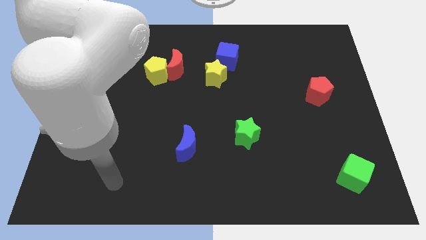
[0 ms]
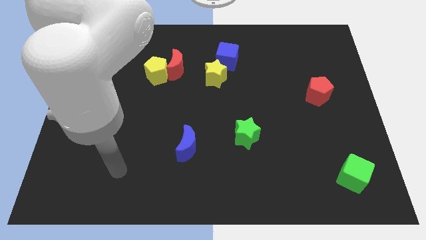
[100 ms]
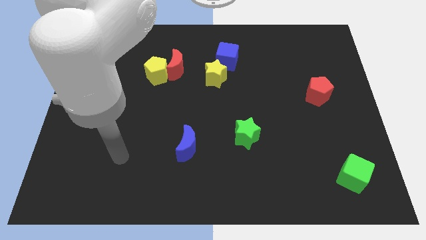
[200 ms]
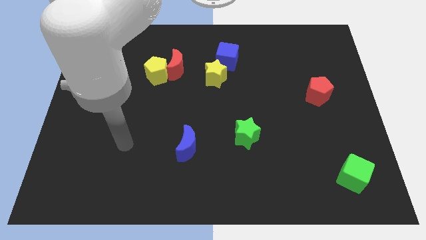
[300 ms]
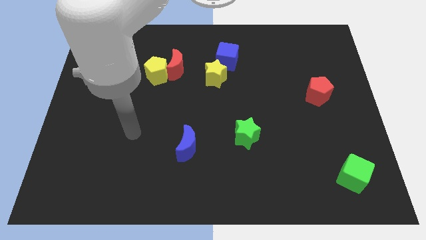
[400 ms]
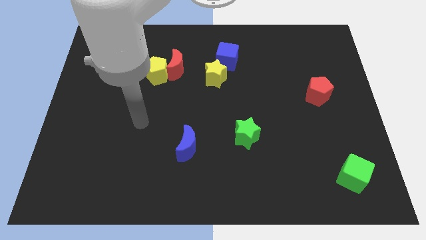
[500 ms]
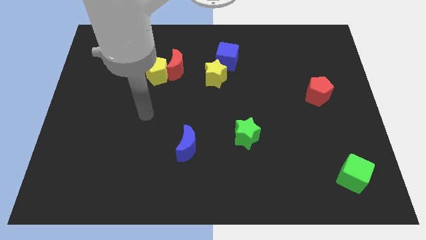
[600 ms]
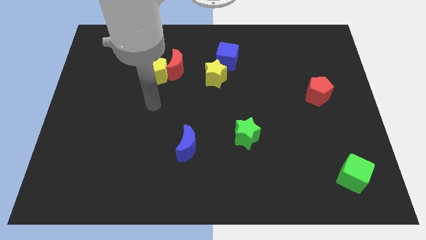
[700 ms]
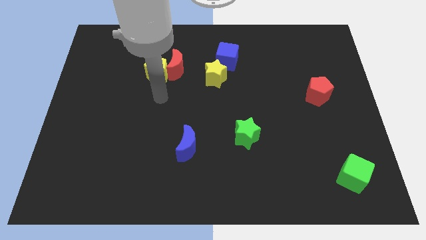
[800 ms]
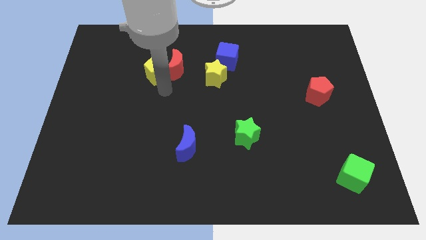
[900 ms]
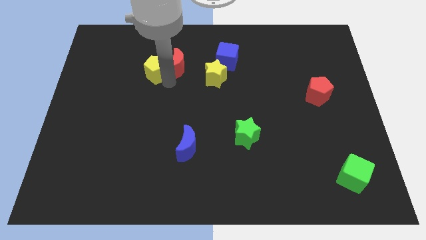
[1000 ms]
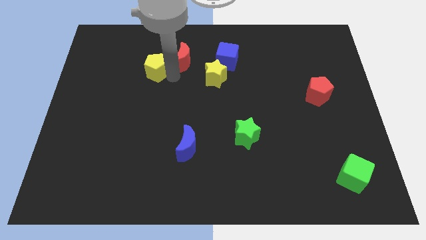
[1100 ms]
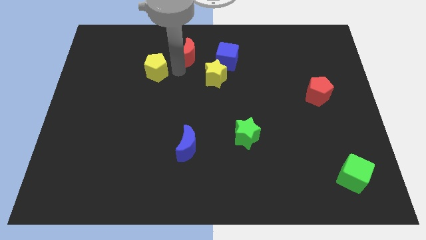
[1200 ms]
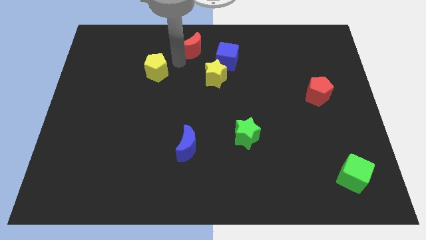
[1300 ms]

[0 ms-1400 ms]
move the yellow pentagon away from the red moon

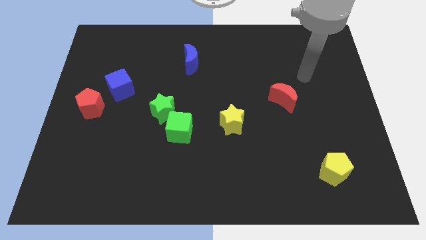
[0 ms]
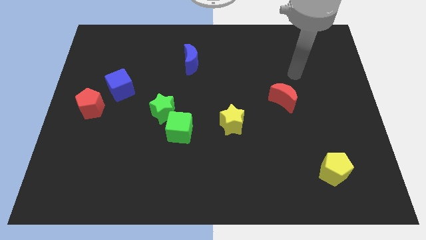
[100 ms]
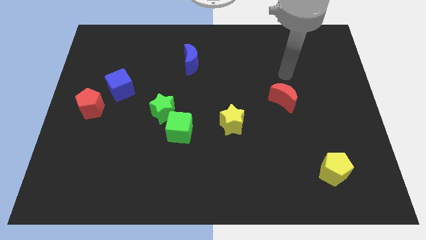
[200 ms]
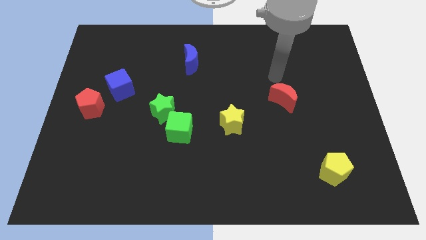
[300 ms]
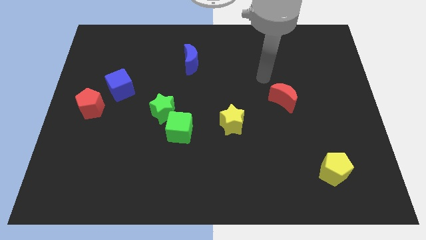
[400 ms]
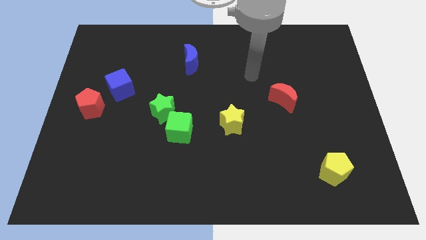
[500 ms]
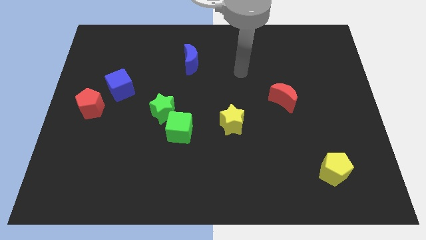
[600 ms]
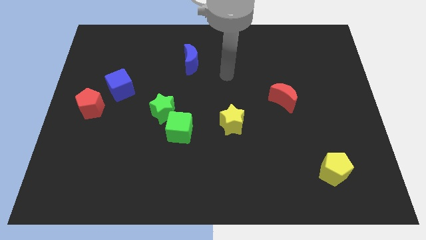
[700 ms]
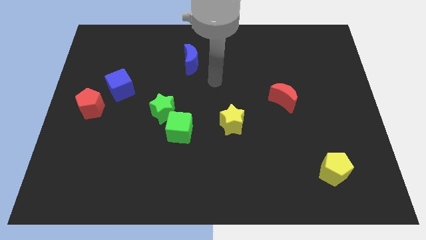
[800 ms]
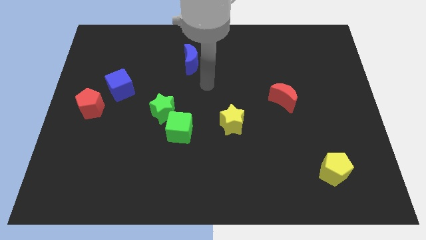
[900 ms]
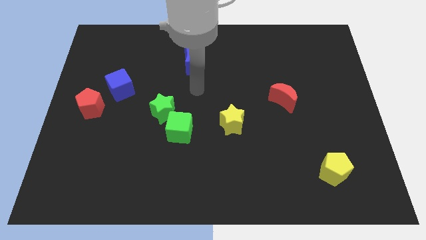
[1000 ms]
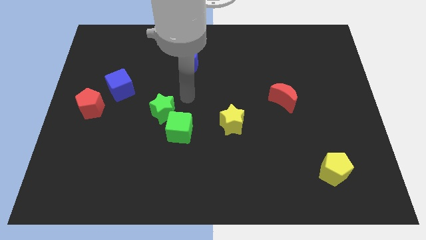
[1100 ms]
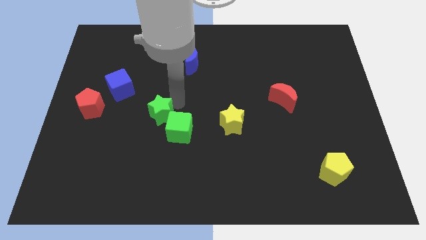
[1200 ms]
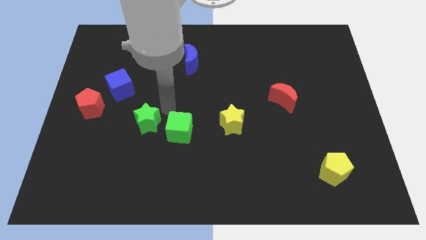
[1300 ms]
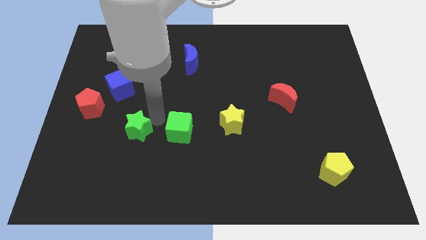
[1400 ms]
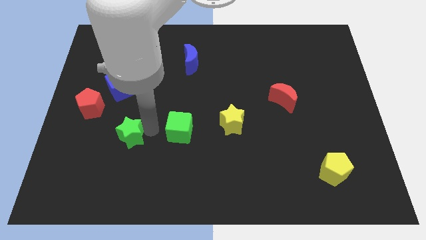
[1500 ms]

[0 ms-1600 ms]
move the green cube away from the green star

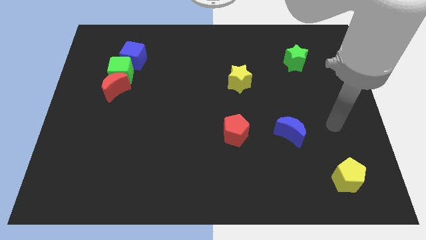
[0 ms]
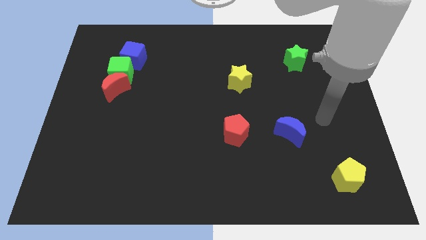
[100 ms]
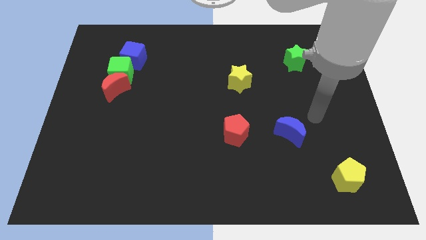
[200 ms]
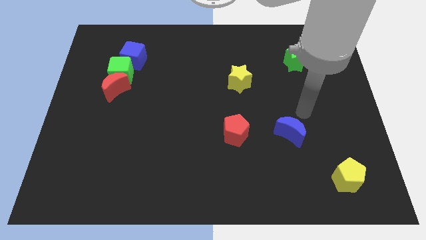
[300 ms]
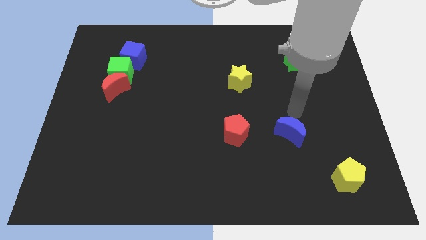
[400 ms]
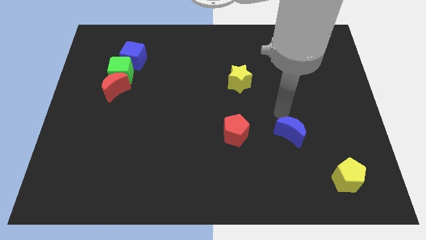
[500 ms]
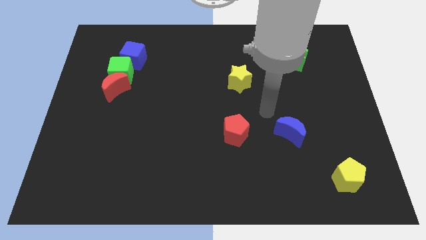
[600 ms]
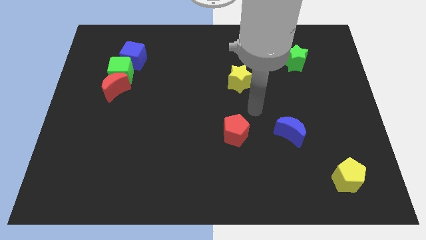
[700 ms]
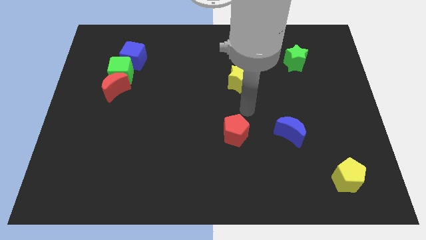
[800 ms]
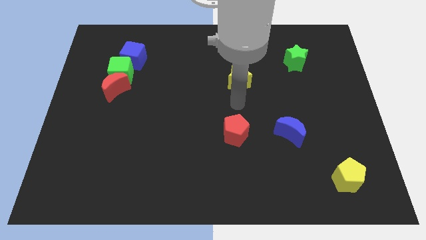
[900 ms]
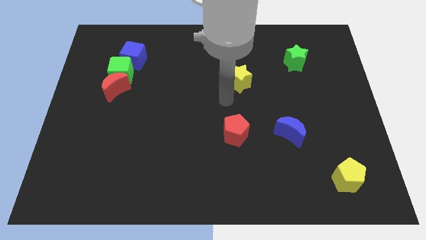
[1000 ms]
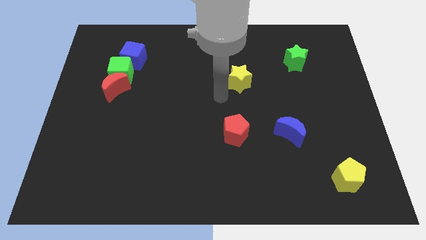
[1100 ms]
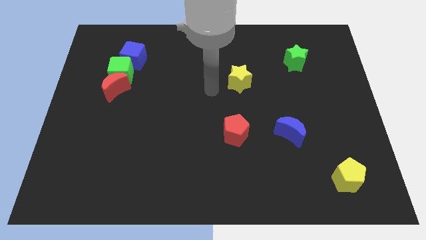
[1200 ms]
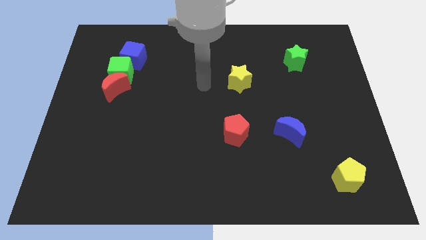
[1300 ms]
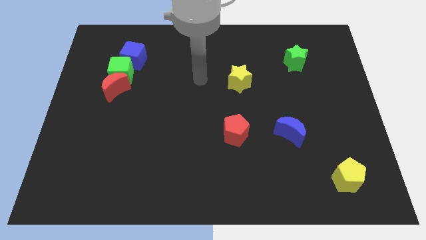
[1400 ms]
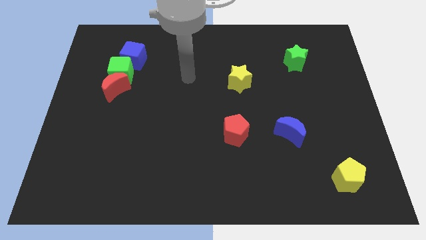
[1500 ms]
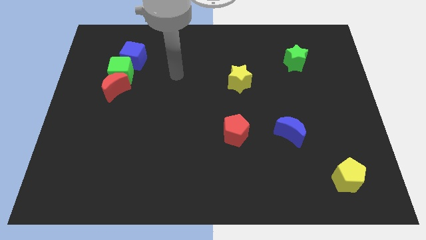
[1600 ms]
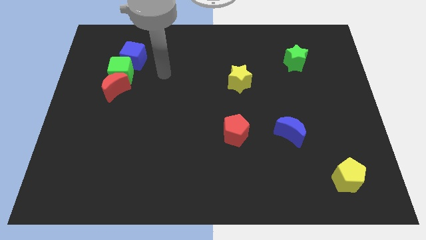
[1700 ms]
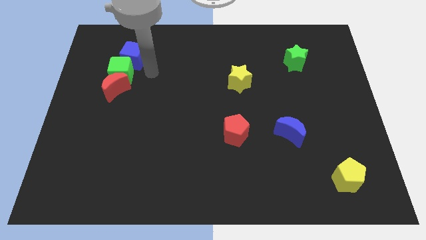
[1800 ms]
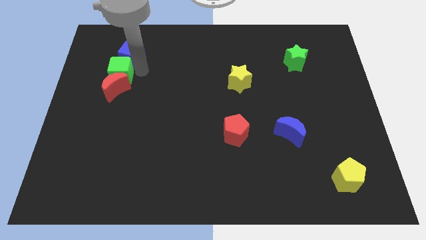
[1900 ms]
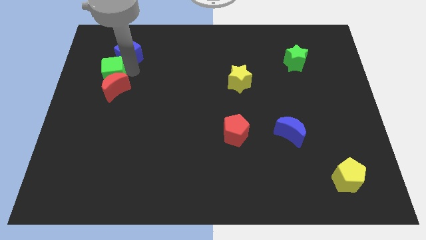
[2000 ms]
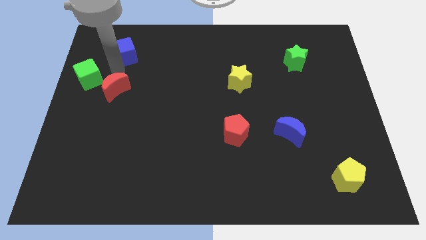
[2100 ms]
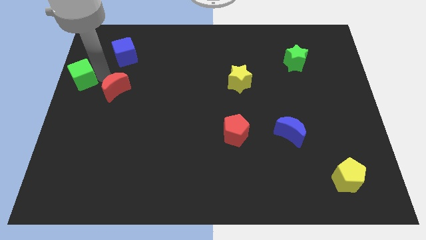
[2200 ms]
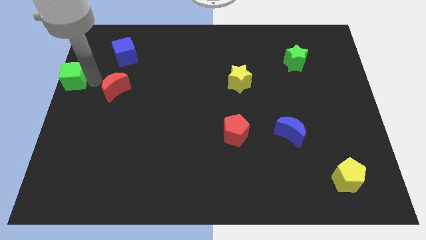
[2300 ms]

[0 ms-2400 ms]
pull the red moon apart from the green cube

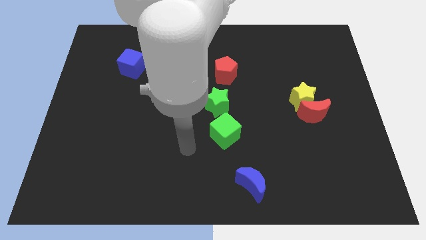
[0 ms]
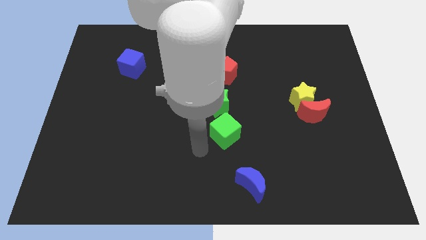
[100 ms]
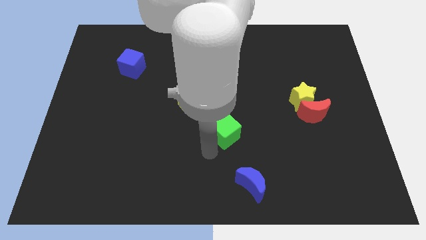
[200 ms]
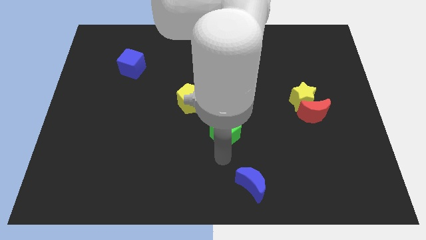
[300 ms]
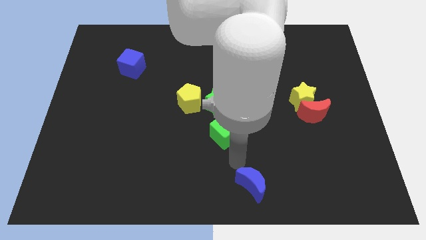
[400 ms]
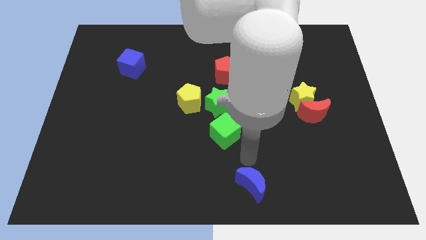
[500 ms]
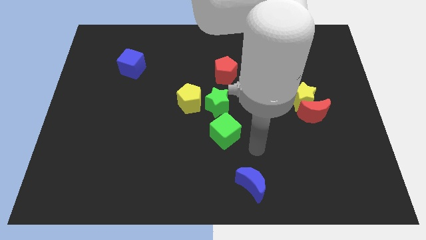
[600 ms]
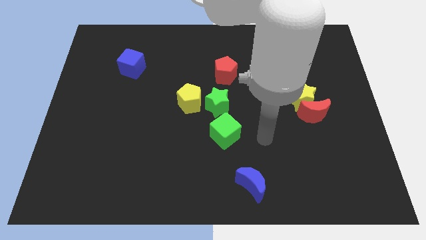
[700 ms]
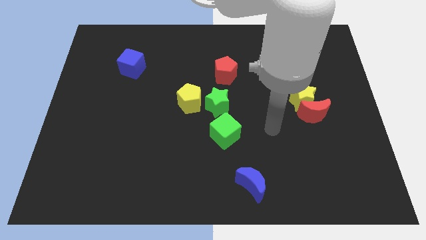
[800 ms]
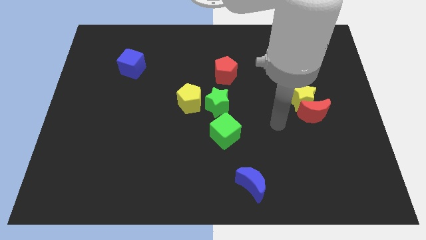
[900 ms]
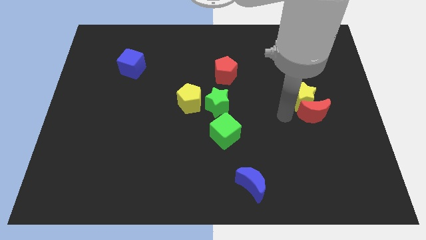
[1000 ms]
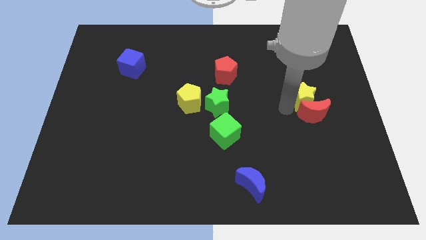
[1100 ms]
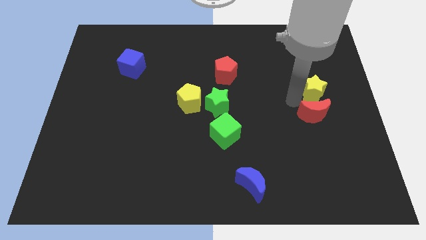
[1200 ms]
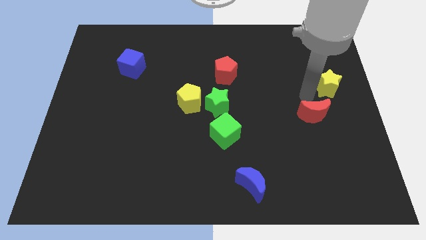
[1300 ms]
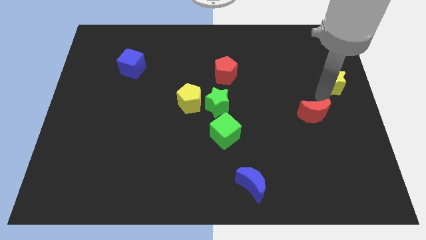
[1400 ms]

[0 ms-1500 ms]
move the red moon away from the yellow star

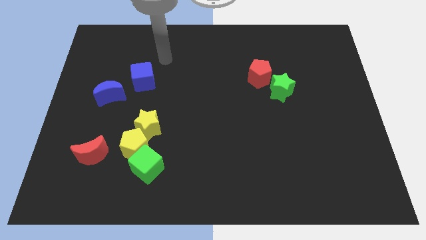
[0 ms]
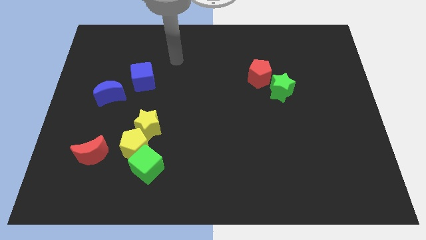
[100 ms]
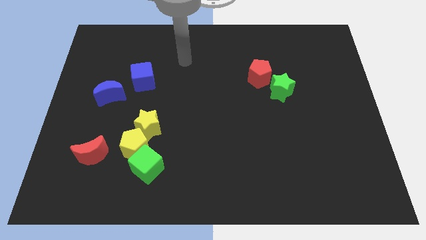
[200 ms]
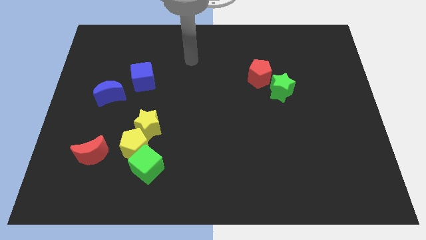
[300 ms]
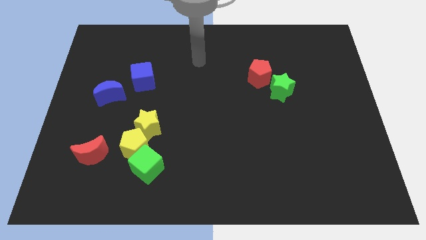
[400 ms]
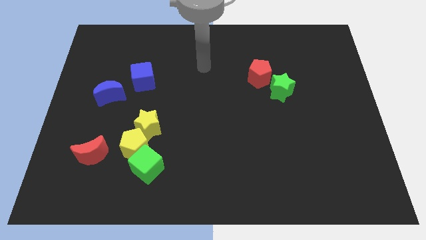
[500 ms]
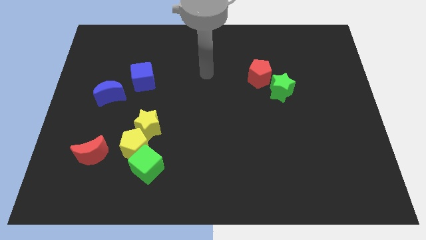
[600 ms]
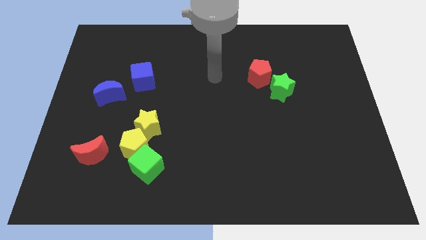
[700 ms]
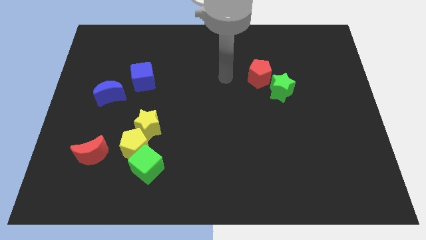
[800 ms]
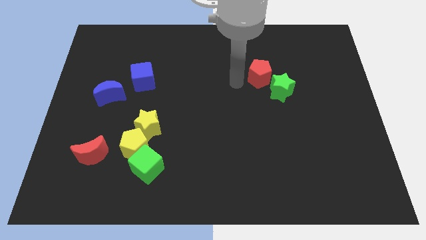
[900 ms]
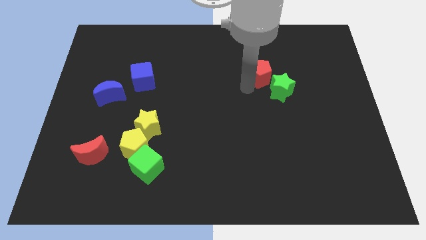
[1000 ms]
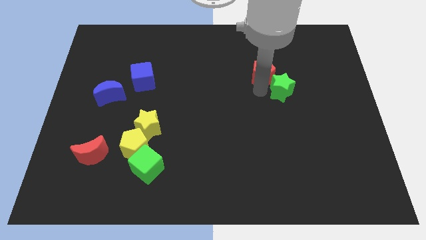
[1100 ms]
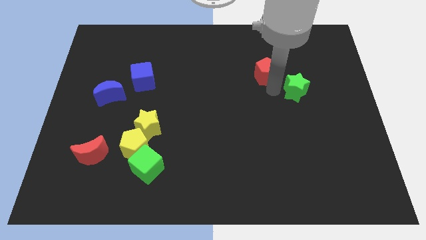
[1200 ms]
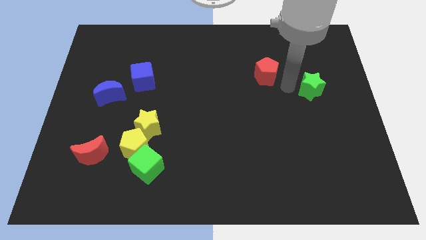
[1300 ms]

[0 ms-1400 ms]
pull the red pentagon apart from the green star

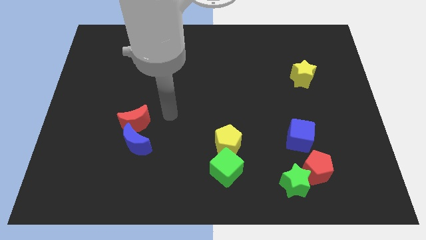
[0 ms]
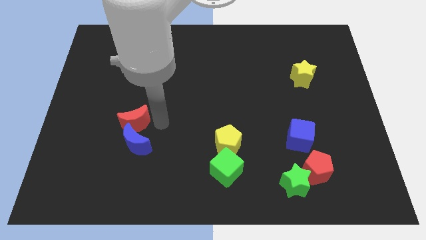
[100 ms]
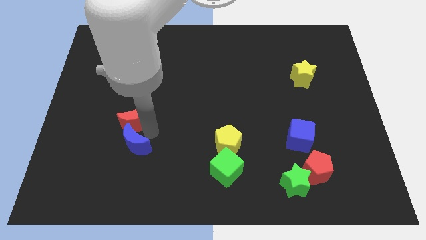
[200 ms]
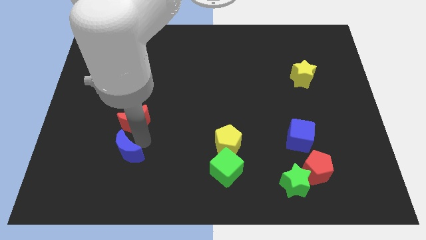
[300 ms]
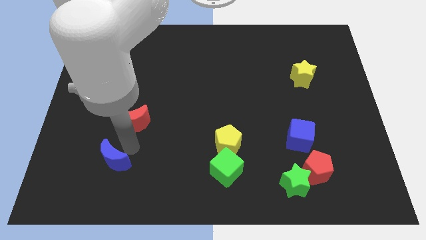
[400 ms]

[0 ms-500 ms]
separate the red moon from the blue moon

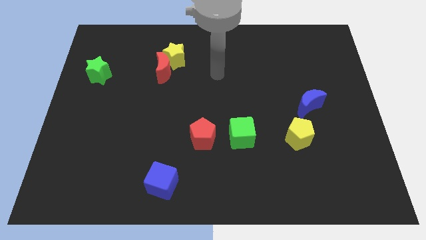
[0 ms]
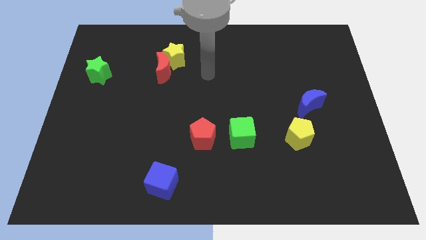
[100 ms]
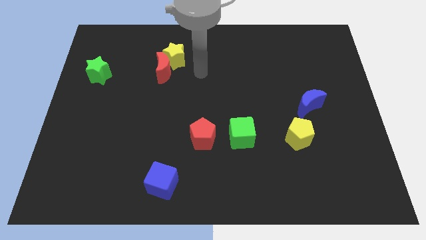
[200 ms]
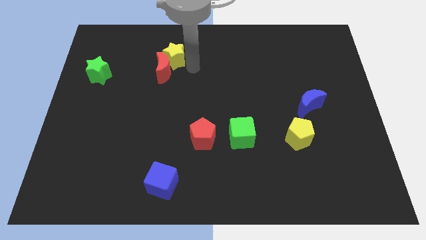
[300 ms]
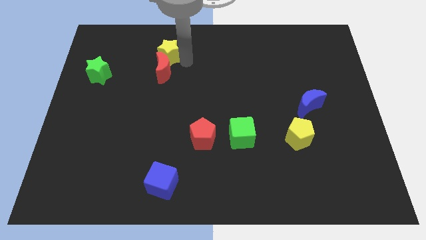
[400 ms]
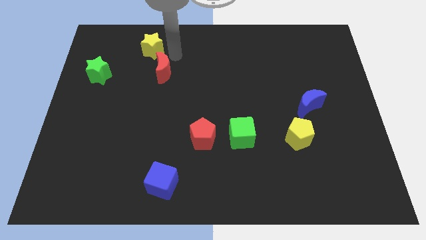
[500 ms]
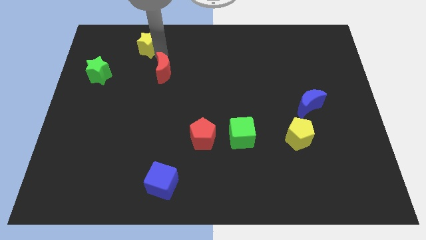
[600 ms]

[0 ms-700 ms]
separate the red moon from the yellow star
